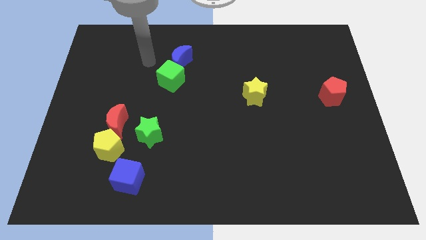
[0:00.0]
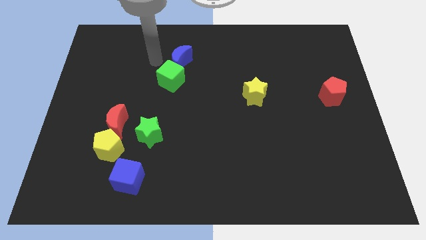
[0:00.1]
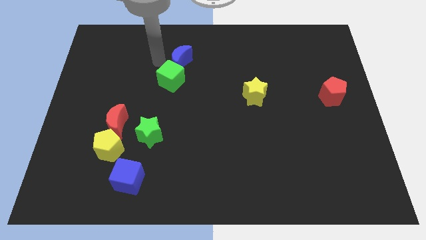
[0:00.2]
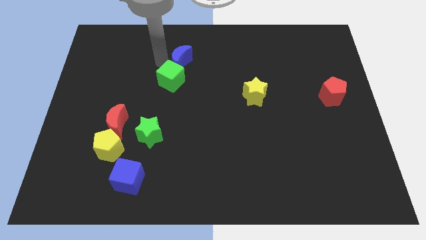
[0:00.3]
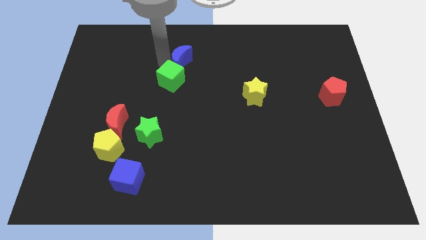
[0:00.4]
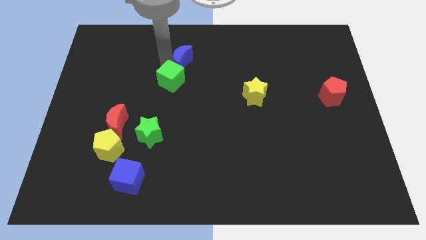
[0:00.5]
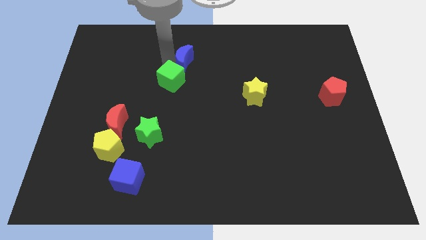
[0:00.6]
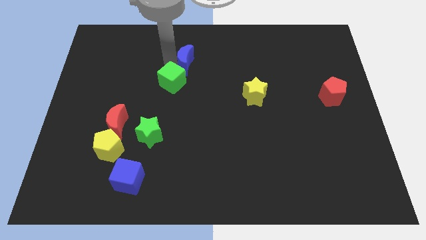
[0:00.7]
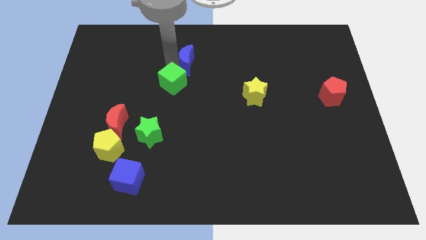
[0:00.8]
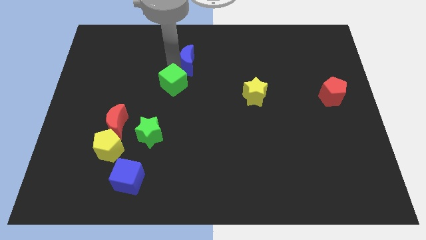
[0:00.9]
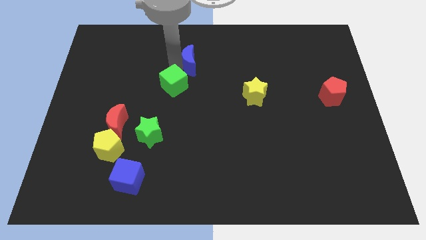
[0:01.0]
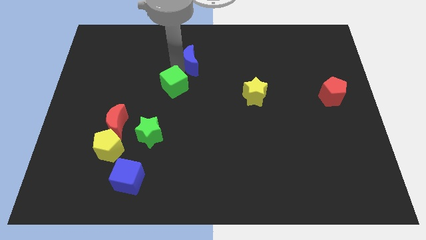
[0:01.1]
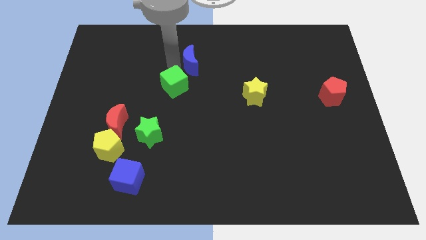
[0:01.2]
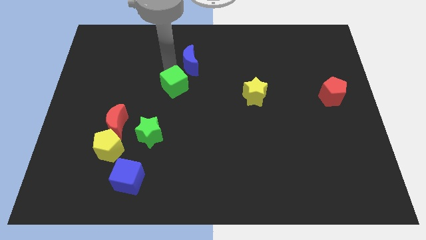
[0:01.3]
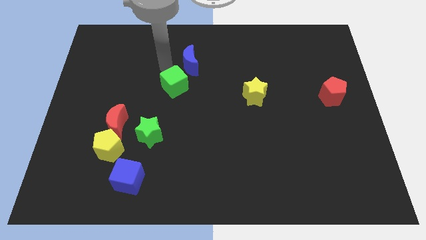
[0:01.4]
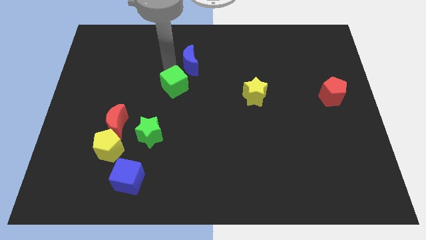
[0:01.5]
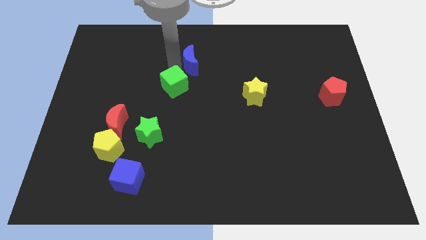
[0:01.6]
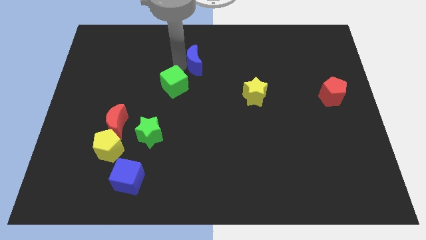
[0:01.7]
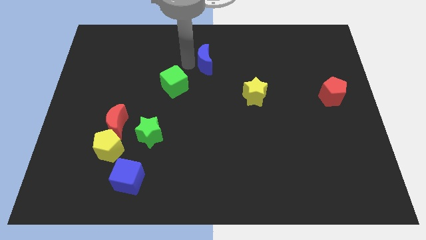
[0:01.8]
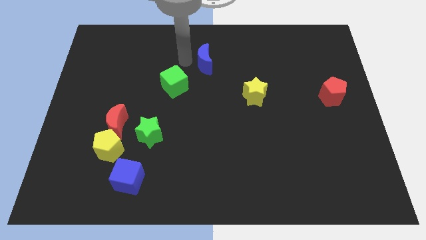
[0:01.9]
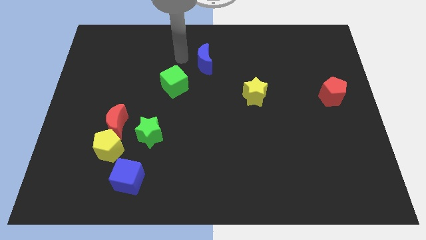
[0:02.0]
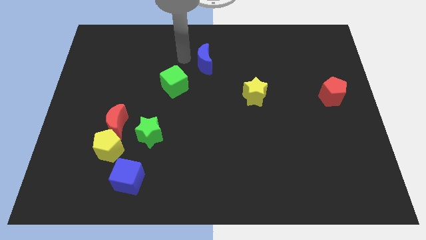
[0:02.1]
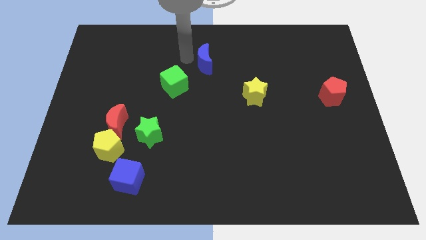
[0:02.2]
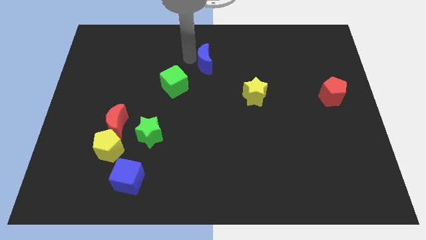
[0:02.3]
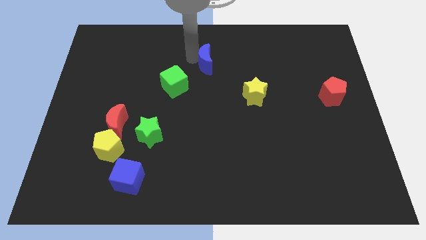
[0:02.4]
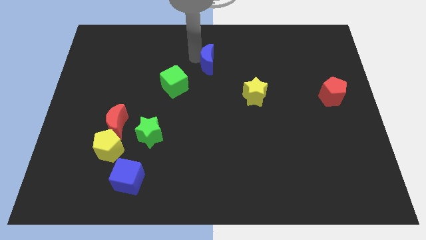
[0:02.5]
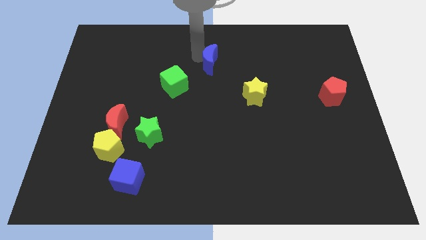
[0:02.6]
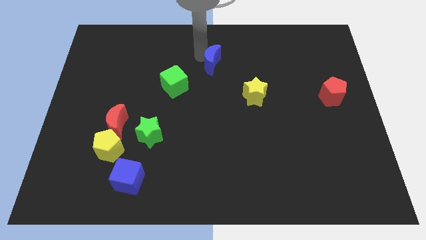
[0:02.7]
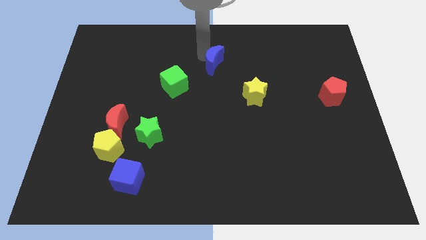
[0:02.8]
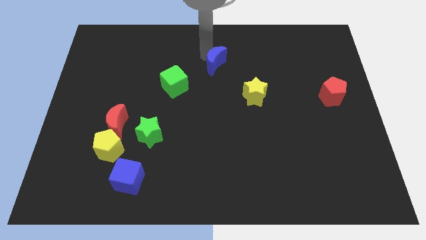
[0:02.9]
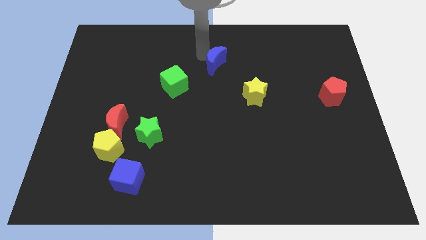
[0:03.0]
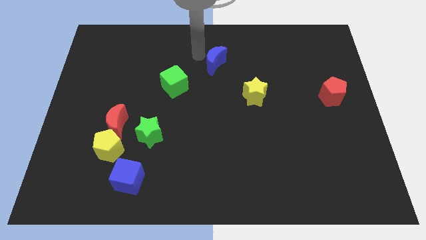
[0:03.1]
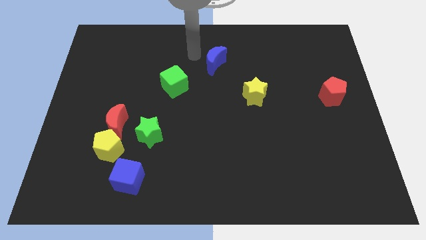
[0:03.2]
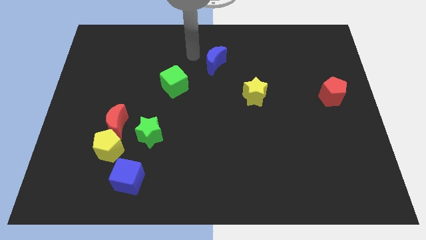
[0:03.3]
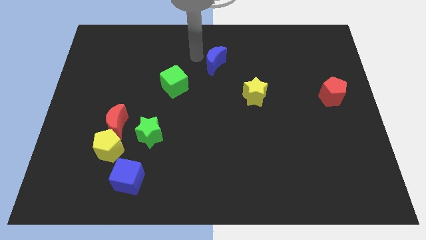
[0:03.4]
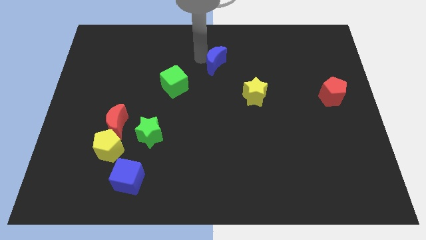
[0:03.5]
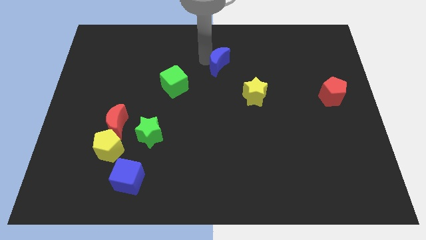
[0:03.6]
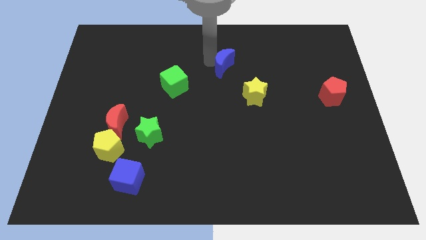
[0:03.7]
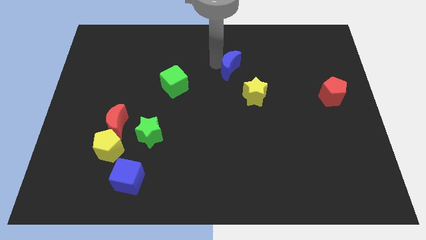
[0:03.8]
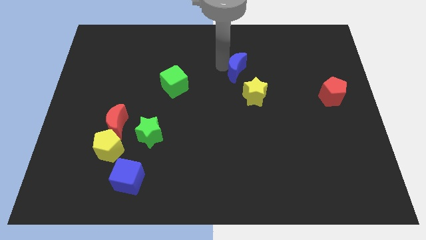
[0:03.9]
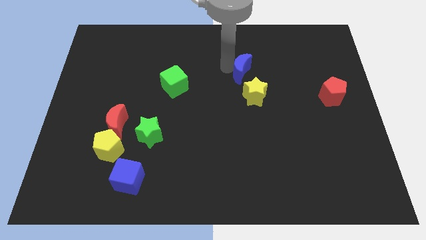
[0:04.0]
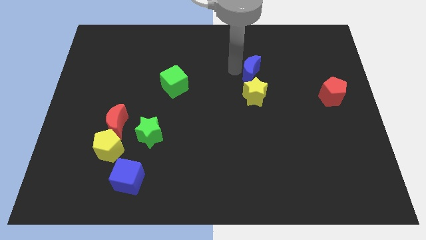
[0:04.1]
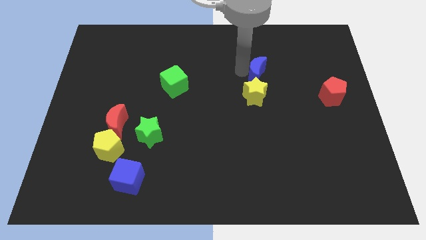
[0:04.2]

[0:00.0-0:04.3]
put the blue moon to the top right of the yellow star

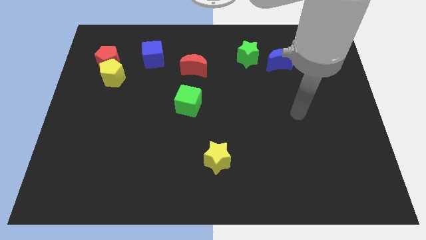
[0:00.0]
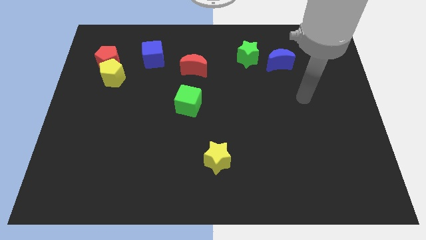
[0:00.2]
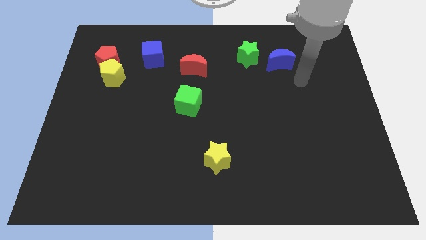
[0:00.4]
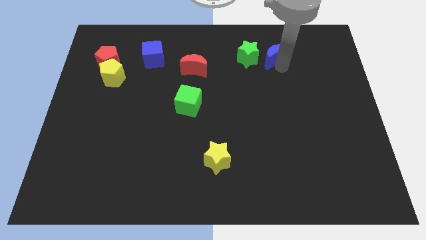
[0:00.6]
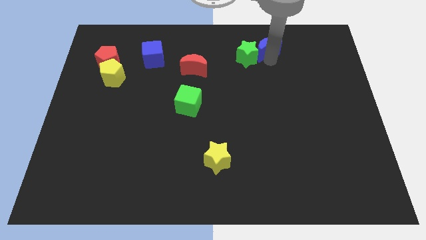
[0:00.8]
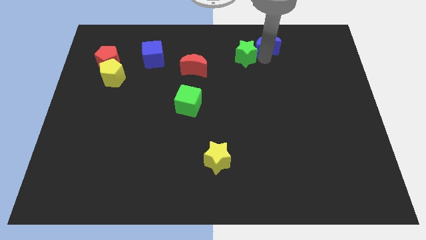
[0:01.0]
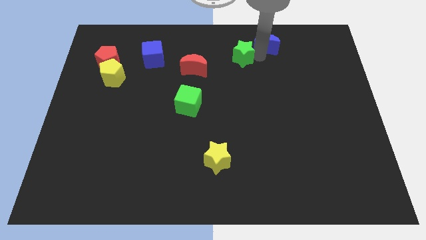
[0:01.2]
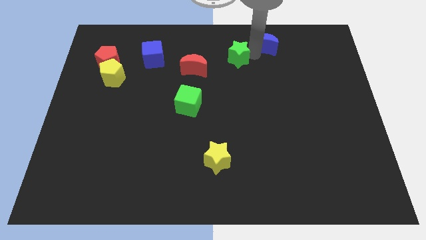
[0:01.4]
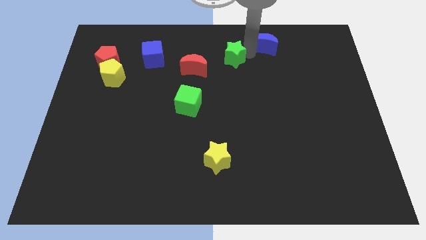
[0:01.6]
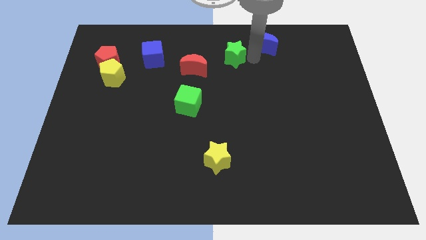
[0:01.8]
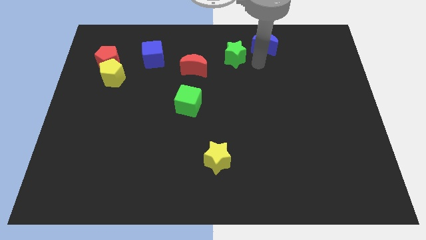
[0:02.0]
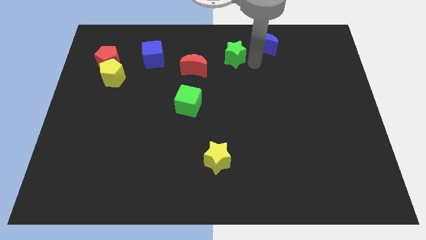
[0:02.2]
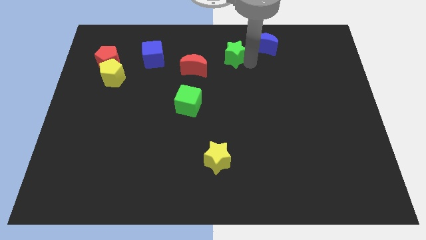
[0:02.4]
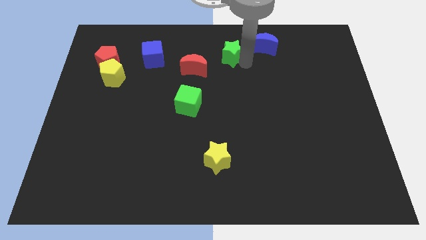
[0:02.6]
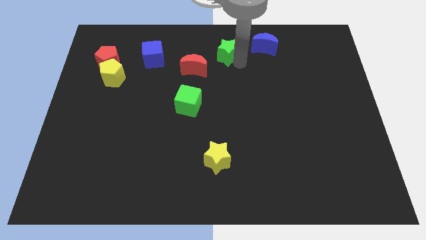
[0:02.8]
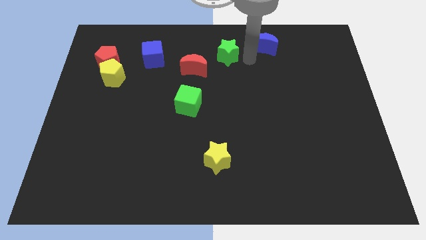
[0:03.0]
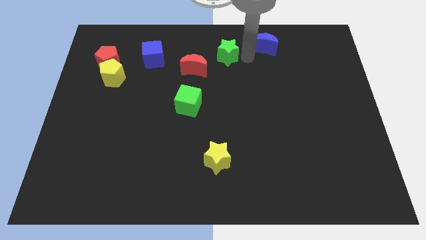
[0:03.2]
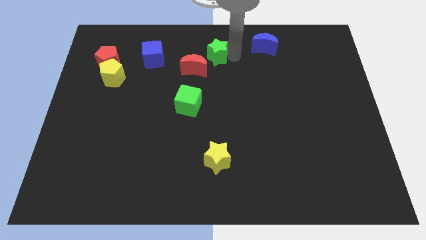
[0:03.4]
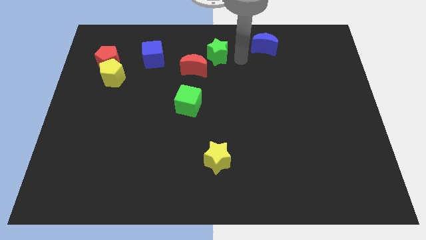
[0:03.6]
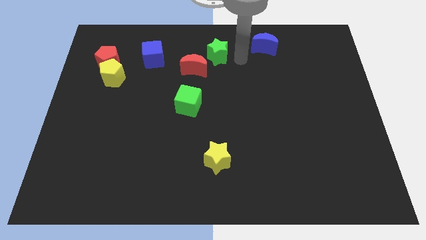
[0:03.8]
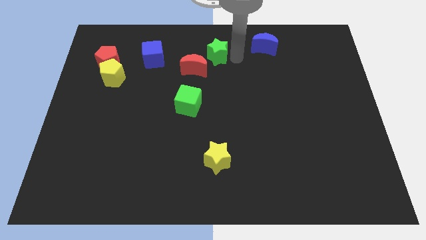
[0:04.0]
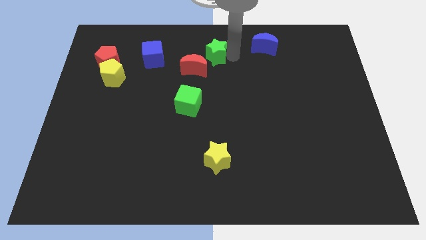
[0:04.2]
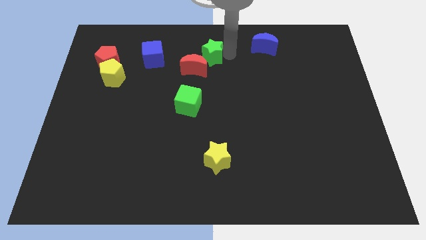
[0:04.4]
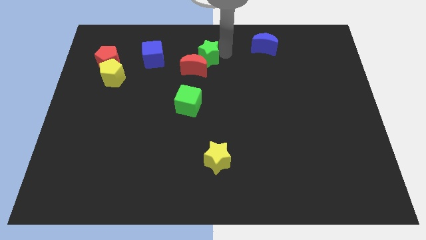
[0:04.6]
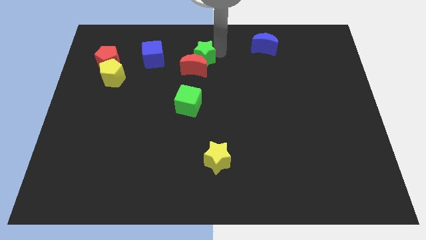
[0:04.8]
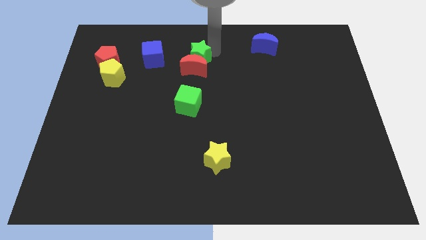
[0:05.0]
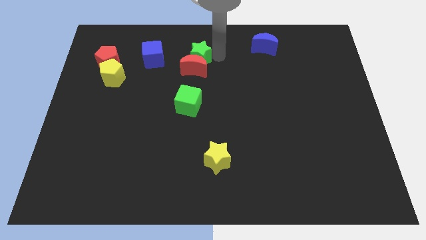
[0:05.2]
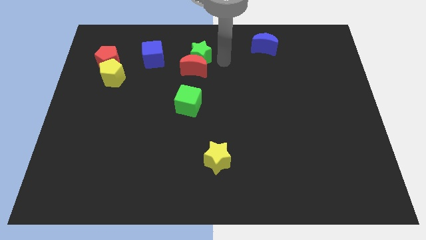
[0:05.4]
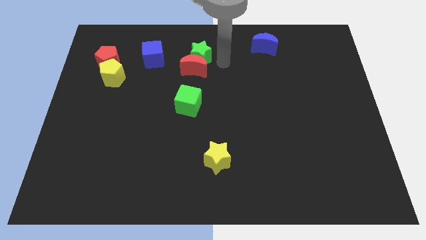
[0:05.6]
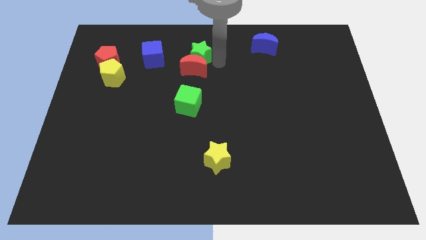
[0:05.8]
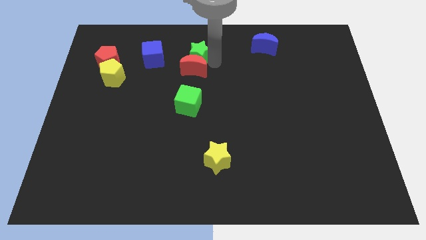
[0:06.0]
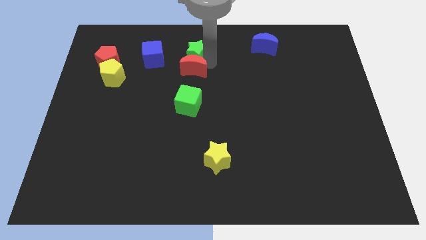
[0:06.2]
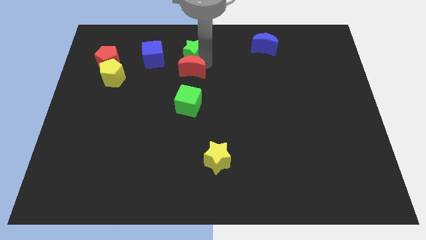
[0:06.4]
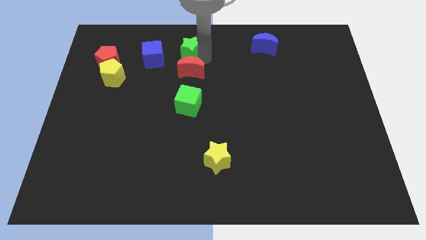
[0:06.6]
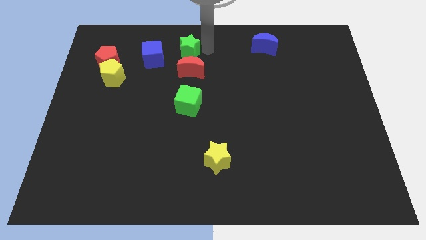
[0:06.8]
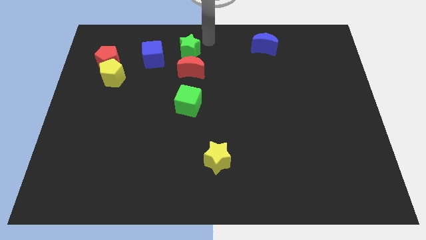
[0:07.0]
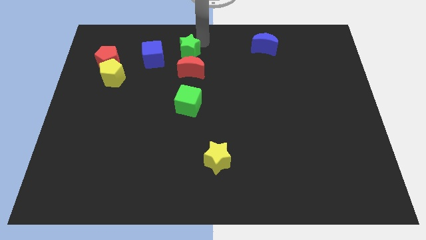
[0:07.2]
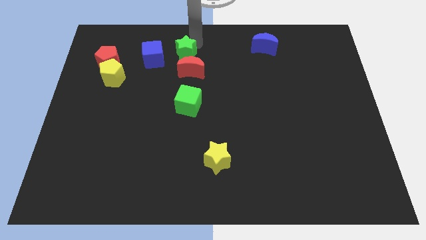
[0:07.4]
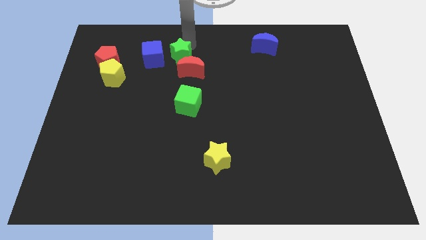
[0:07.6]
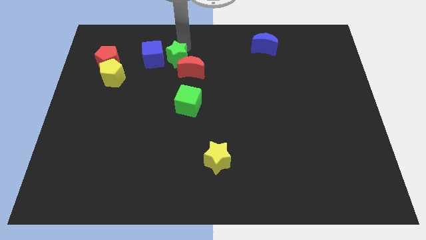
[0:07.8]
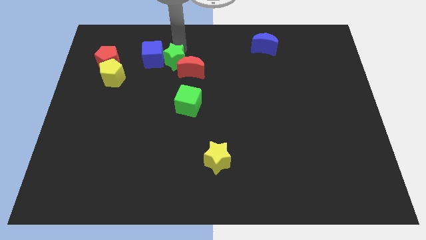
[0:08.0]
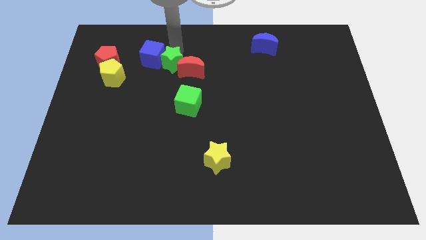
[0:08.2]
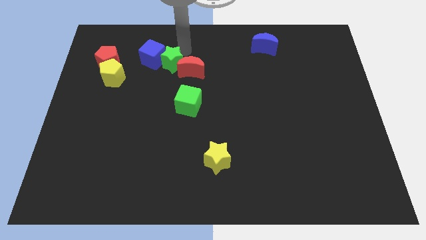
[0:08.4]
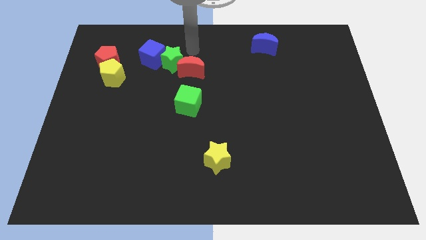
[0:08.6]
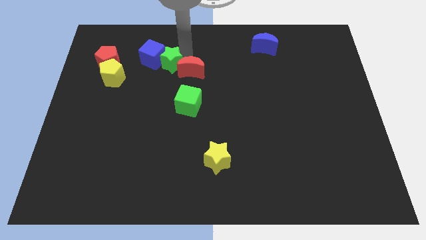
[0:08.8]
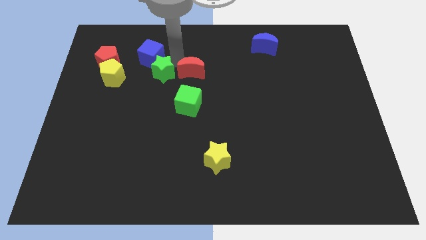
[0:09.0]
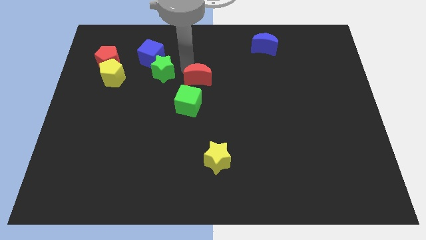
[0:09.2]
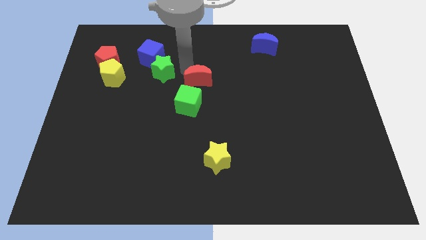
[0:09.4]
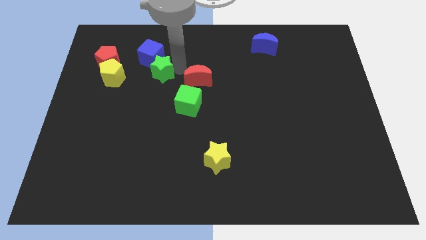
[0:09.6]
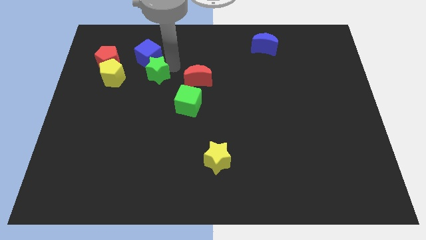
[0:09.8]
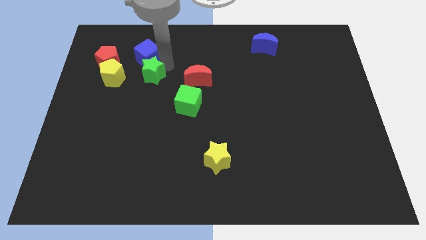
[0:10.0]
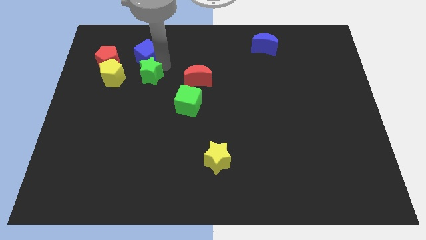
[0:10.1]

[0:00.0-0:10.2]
push the green star to the bottom left of the blue cube
